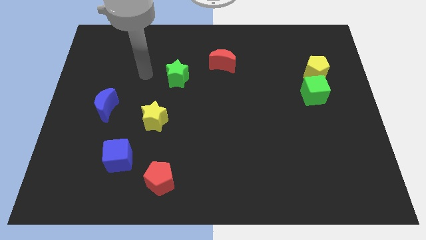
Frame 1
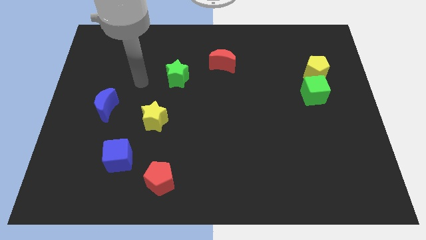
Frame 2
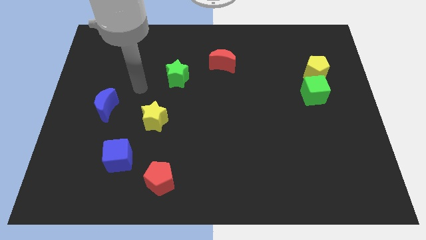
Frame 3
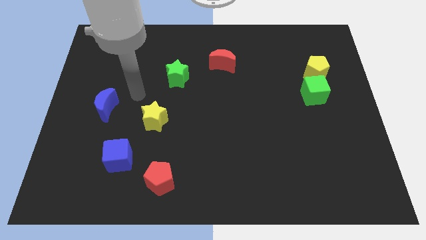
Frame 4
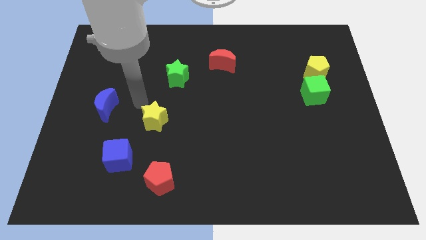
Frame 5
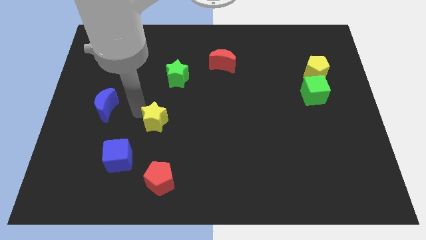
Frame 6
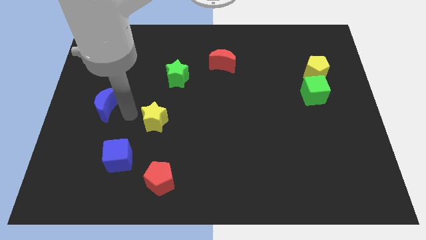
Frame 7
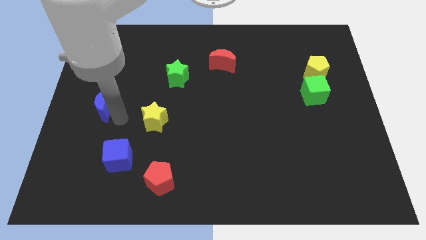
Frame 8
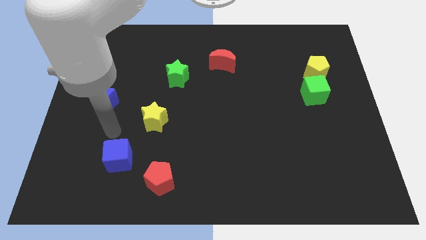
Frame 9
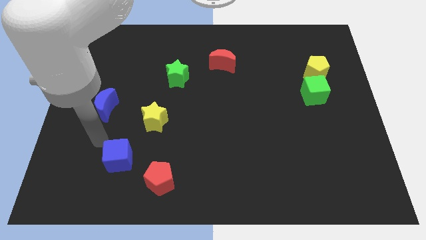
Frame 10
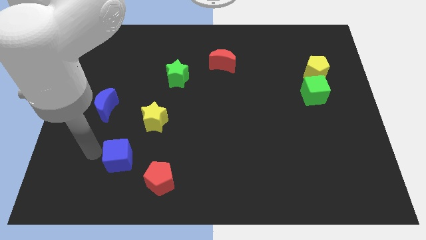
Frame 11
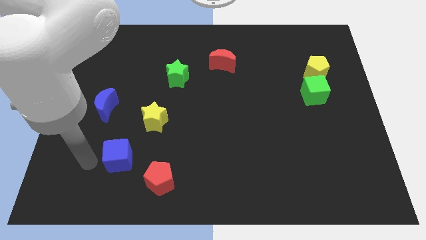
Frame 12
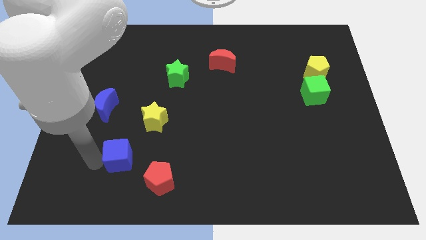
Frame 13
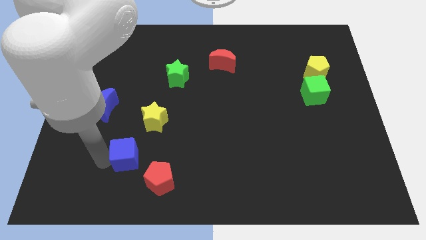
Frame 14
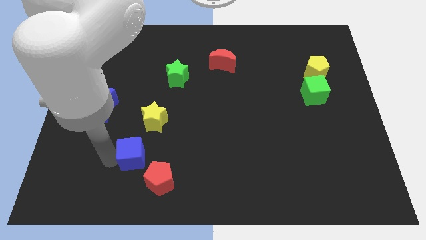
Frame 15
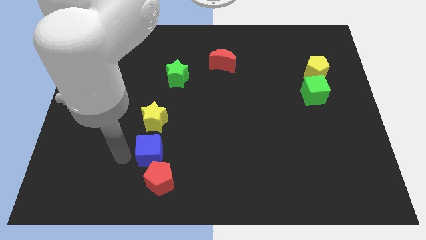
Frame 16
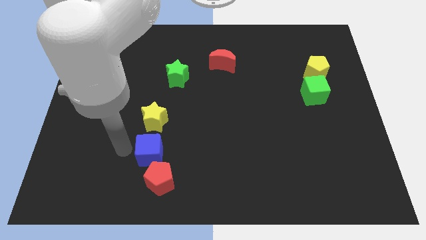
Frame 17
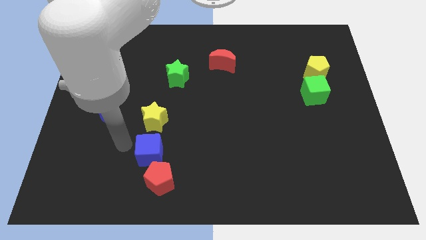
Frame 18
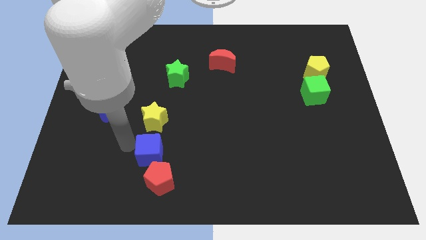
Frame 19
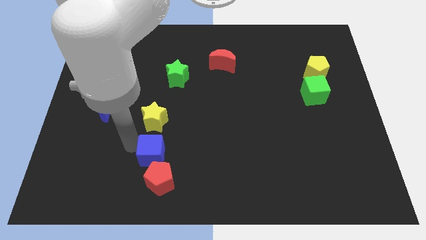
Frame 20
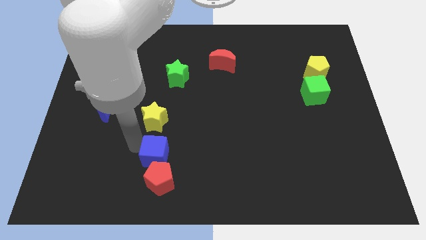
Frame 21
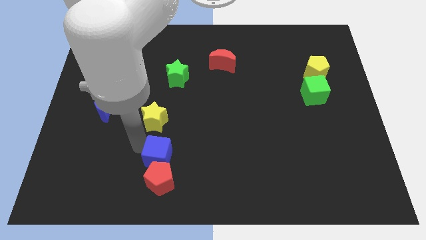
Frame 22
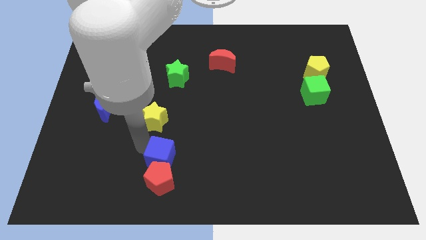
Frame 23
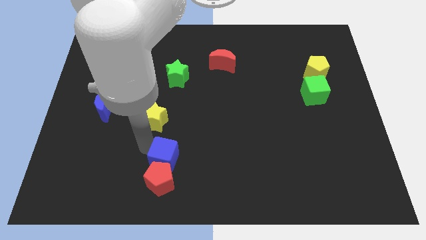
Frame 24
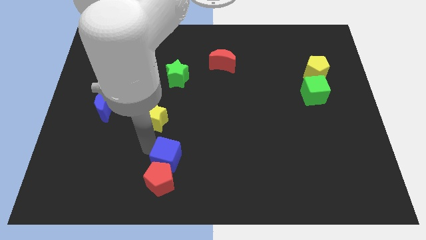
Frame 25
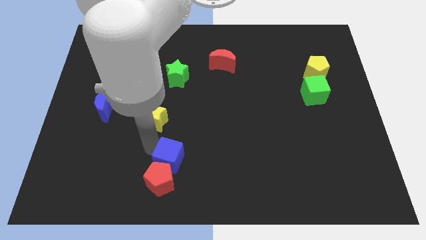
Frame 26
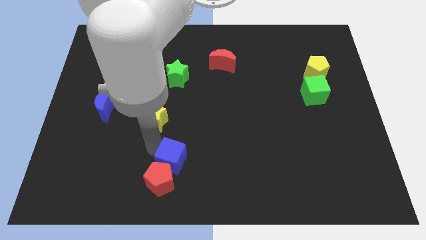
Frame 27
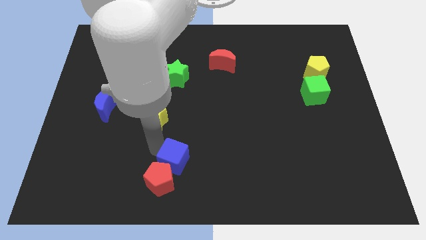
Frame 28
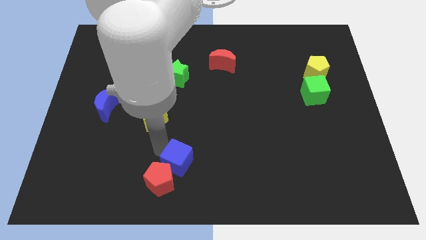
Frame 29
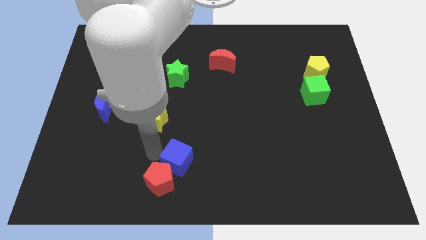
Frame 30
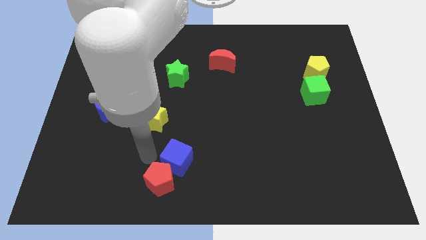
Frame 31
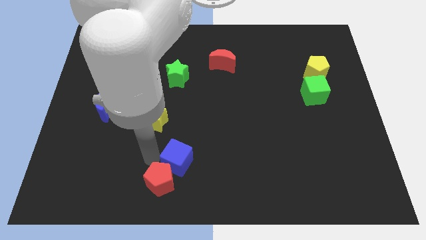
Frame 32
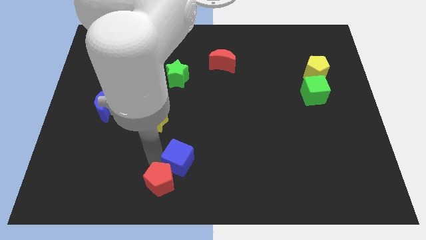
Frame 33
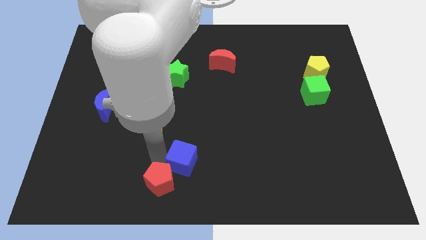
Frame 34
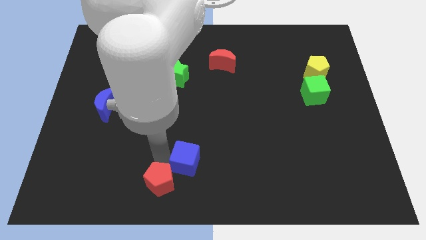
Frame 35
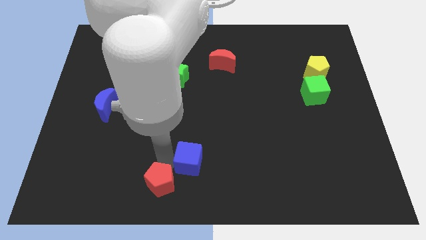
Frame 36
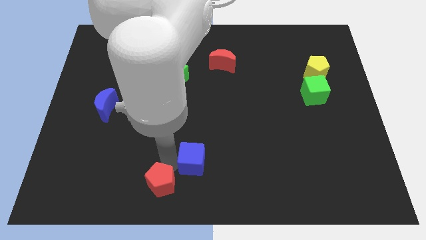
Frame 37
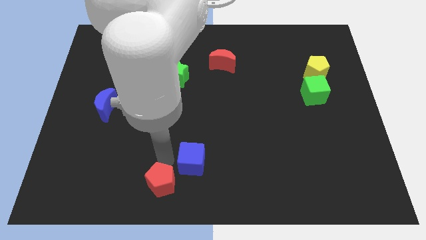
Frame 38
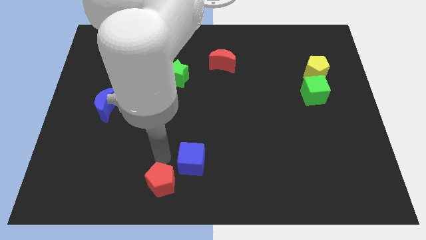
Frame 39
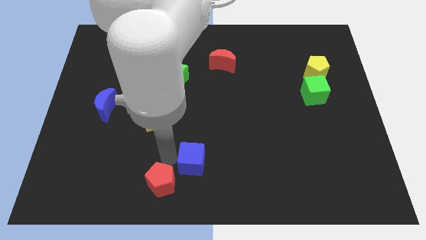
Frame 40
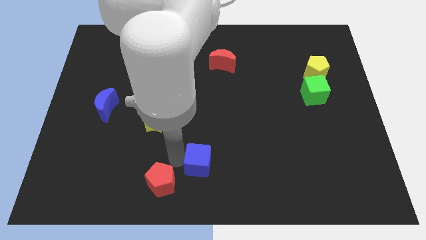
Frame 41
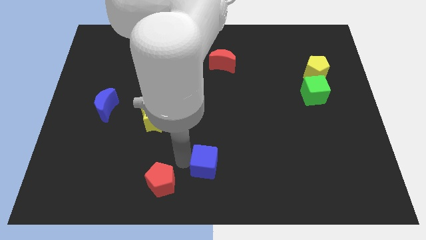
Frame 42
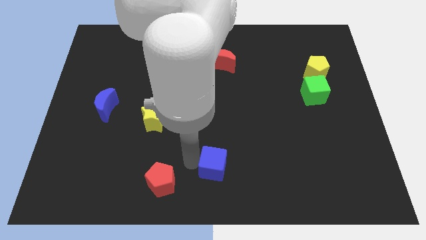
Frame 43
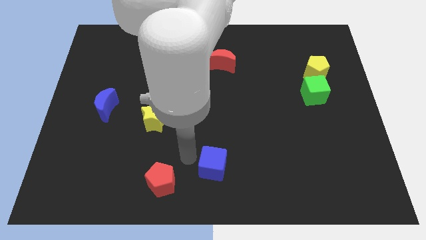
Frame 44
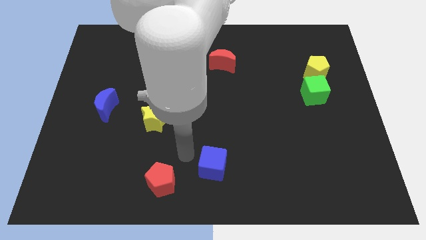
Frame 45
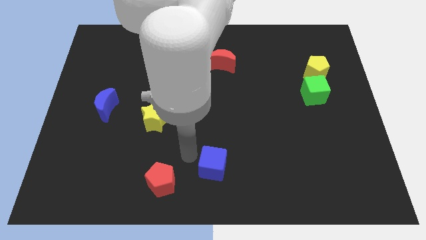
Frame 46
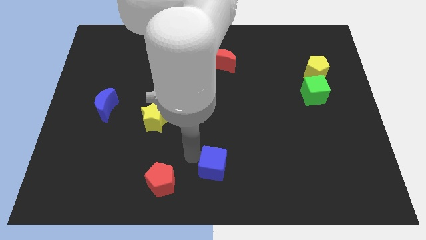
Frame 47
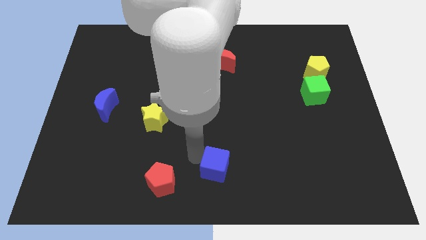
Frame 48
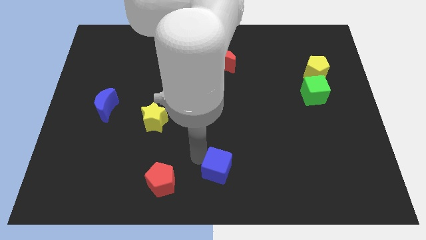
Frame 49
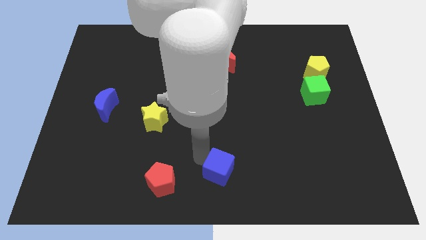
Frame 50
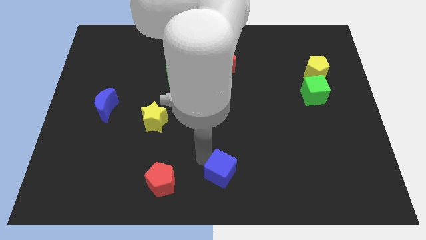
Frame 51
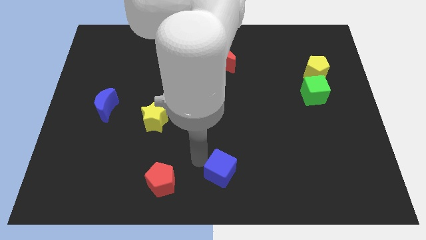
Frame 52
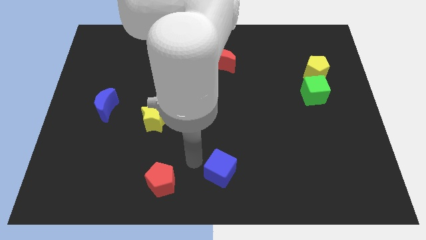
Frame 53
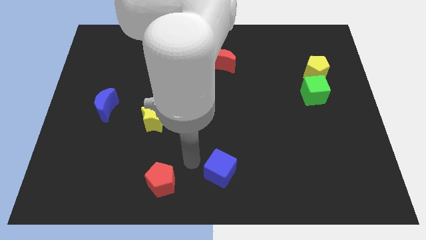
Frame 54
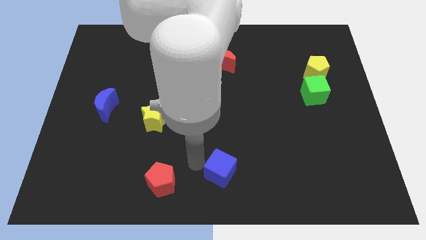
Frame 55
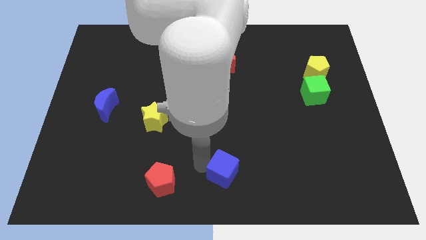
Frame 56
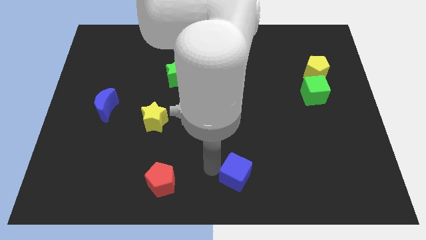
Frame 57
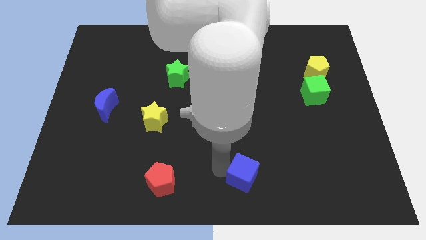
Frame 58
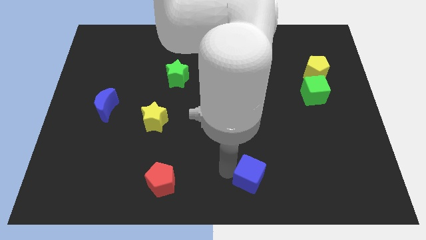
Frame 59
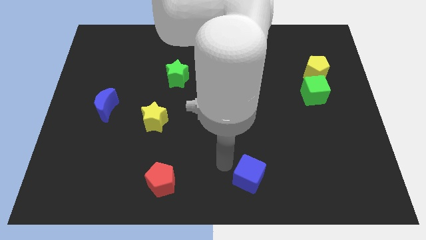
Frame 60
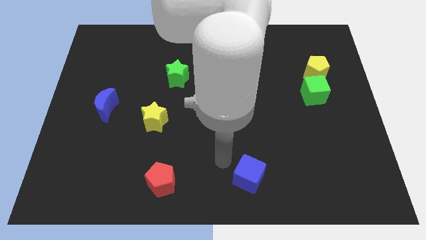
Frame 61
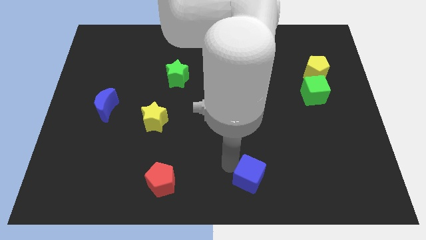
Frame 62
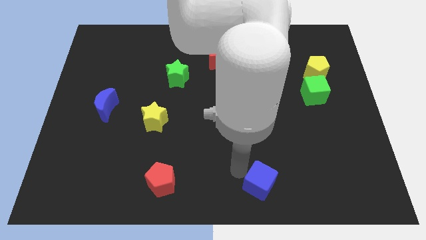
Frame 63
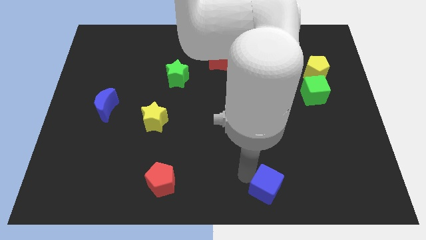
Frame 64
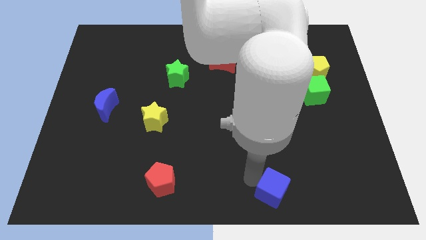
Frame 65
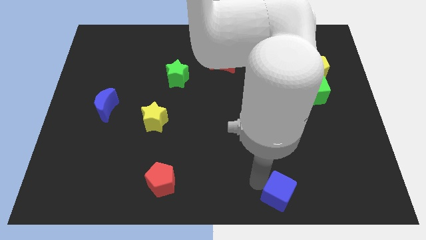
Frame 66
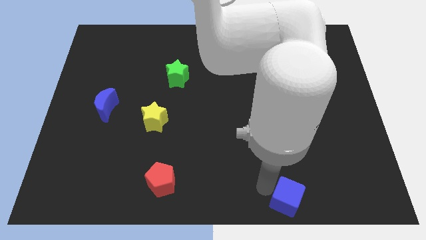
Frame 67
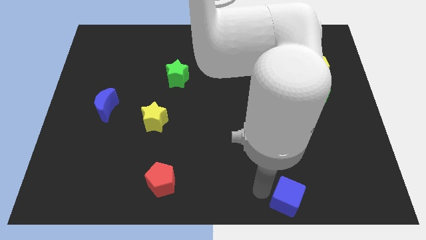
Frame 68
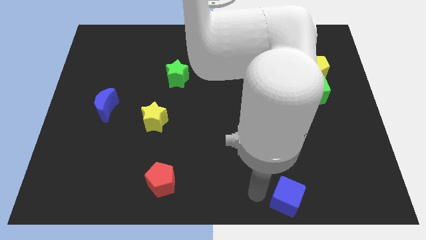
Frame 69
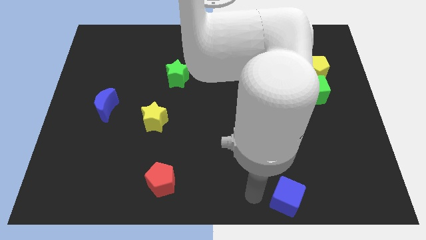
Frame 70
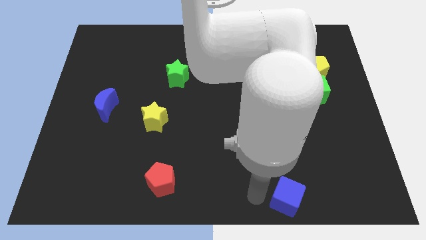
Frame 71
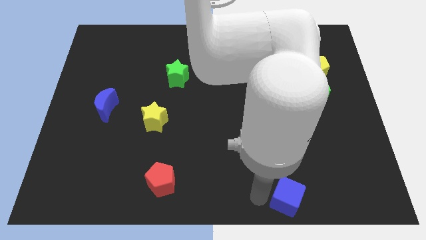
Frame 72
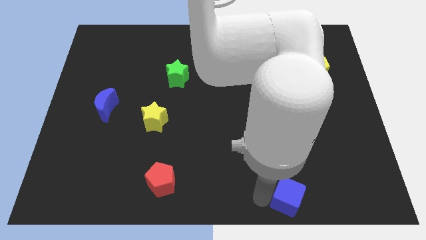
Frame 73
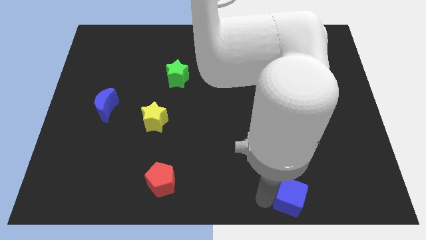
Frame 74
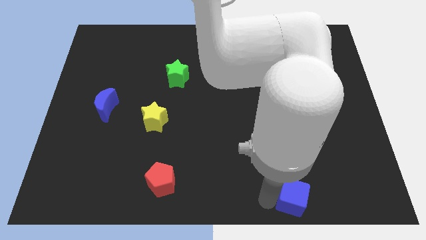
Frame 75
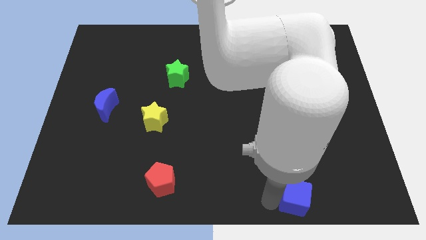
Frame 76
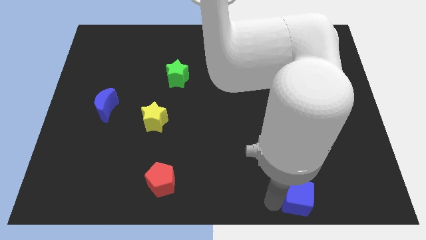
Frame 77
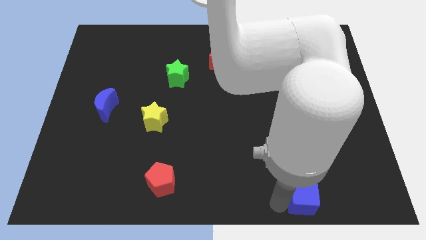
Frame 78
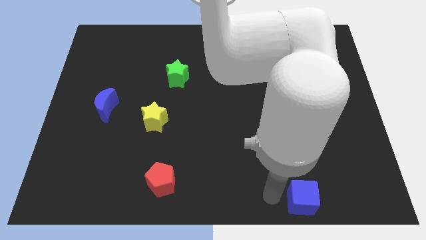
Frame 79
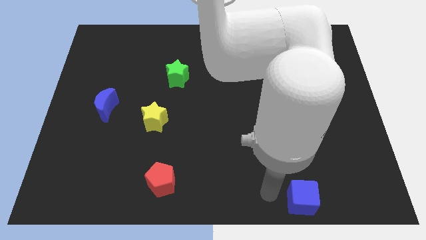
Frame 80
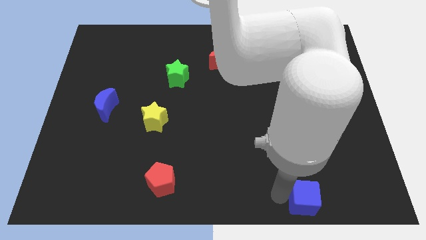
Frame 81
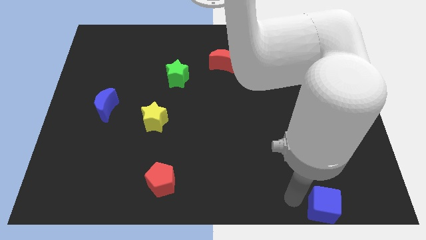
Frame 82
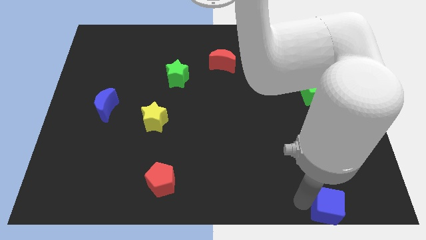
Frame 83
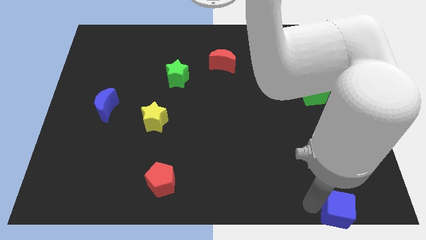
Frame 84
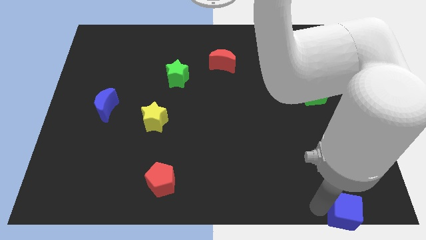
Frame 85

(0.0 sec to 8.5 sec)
push the blue cube to the bottom right
